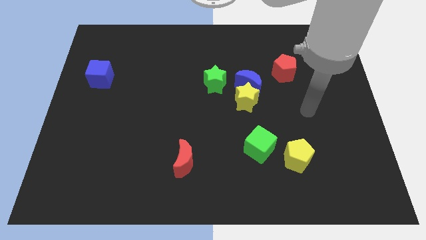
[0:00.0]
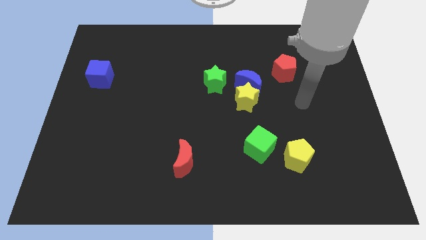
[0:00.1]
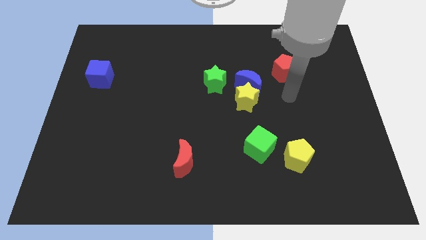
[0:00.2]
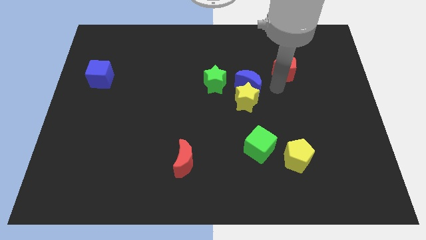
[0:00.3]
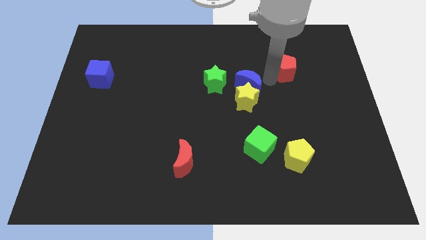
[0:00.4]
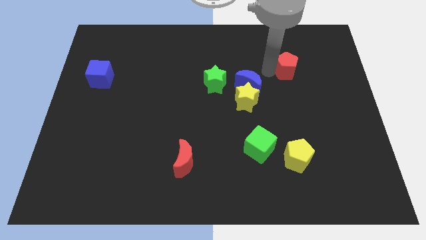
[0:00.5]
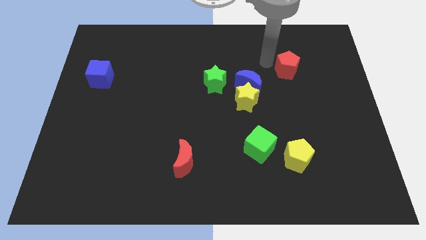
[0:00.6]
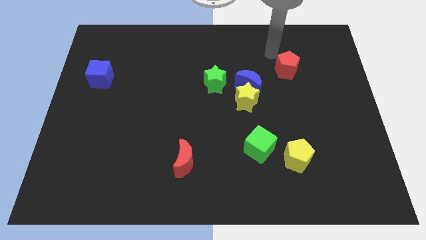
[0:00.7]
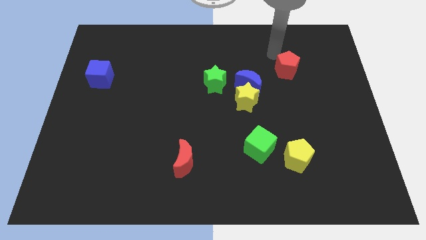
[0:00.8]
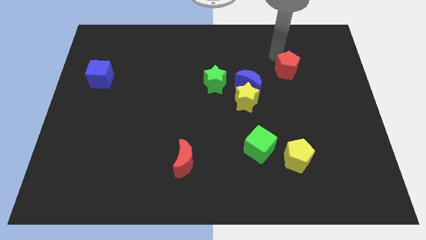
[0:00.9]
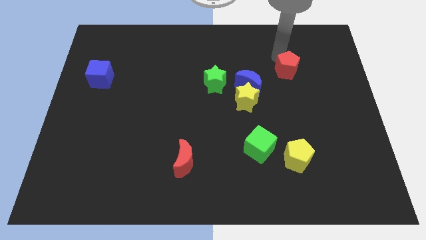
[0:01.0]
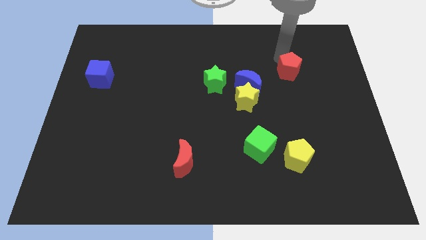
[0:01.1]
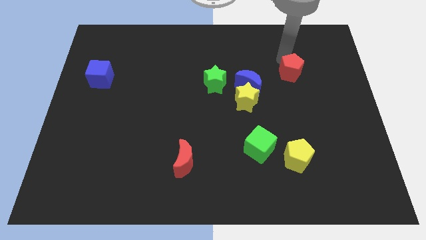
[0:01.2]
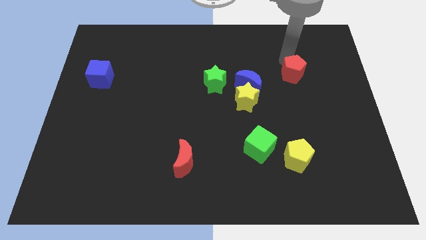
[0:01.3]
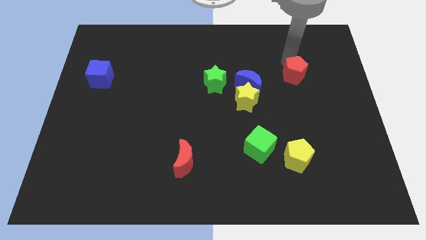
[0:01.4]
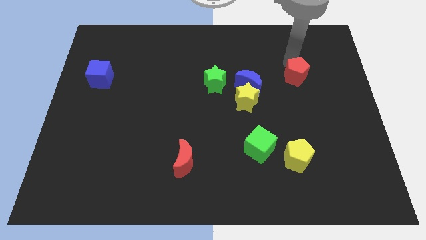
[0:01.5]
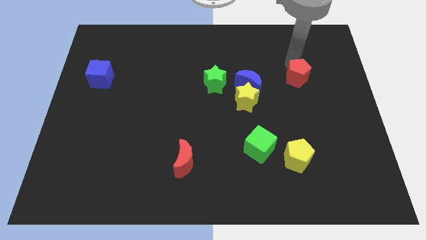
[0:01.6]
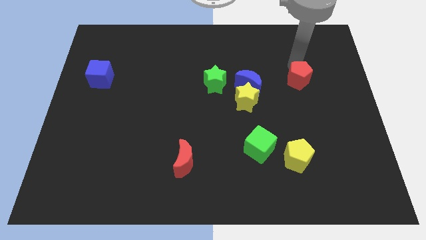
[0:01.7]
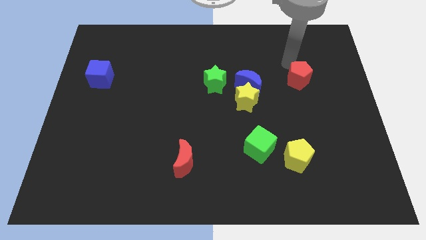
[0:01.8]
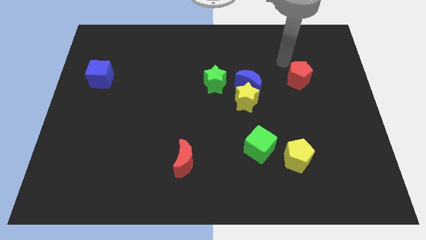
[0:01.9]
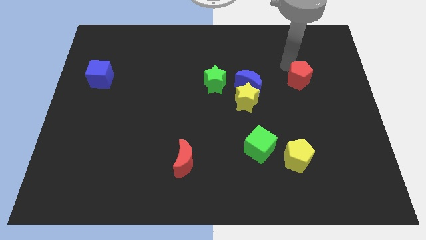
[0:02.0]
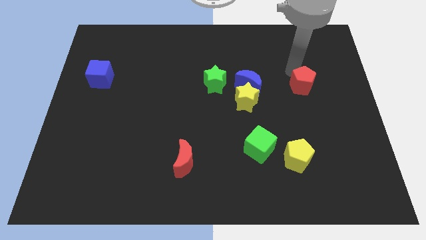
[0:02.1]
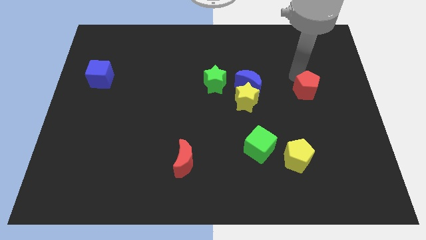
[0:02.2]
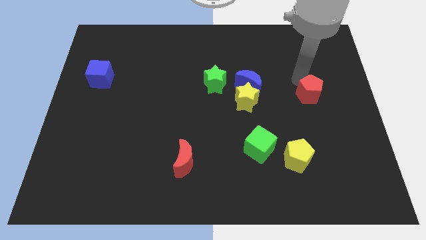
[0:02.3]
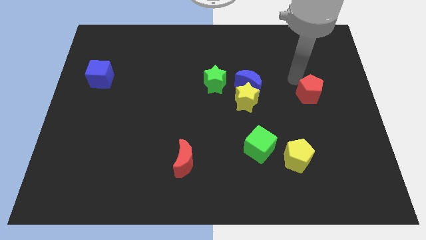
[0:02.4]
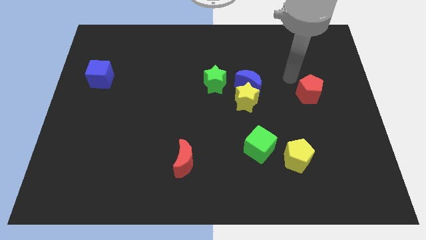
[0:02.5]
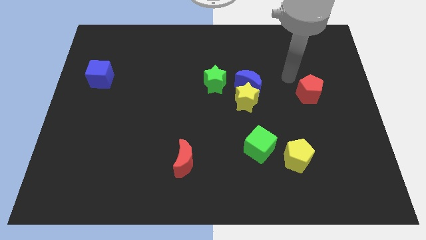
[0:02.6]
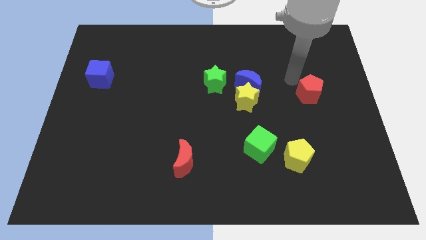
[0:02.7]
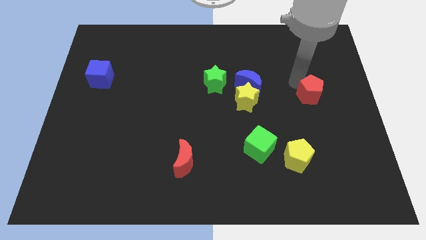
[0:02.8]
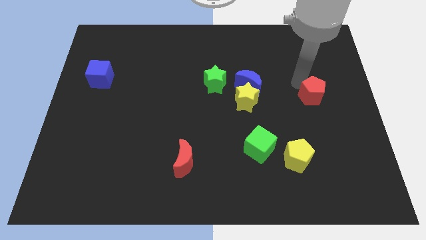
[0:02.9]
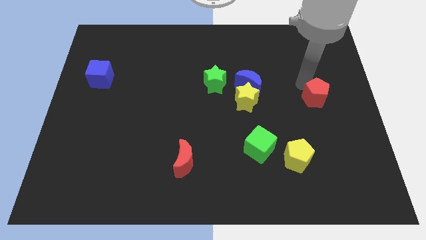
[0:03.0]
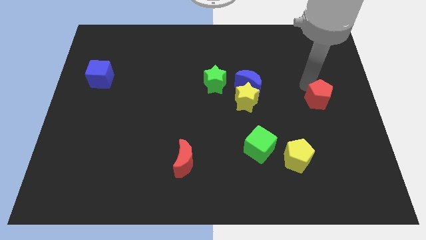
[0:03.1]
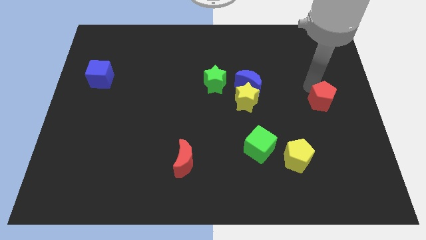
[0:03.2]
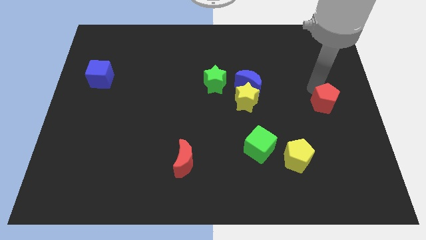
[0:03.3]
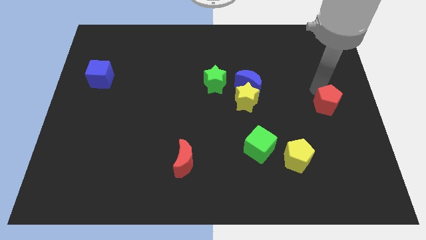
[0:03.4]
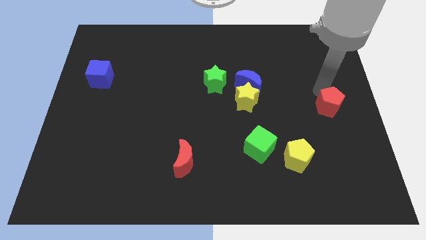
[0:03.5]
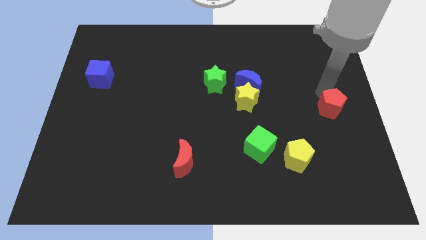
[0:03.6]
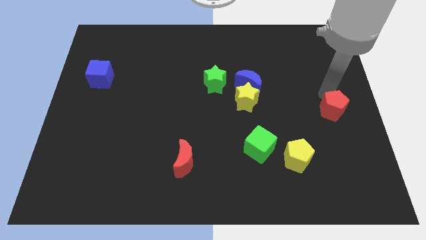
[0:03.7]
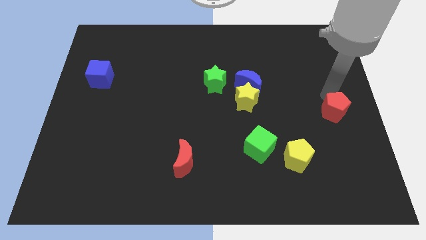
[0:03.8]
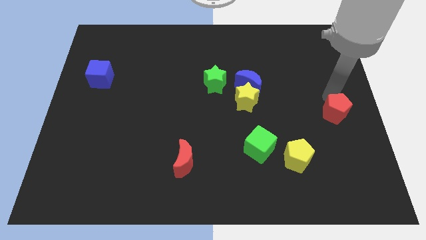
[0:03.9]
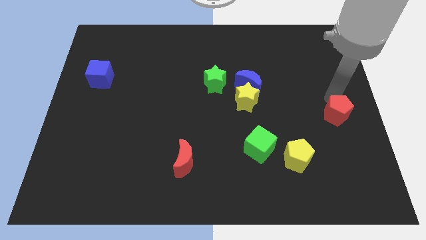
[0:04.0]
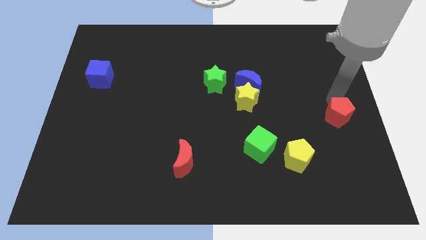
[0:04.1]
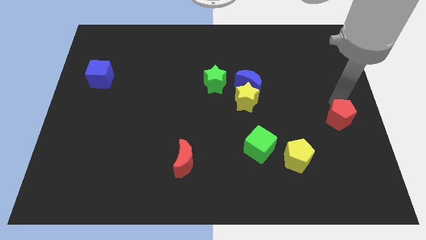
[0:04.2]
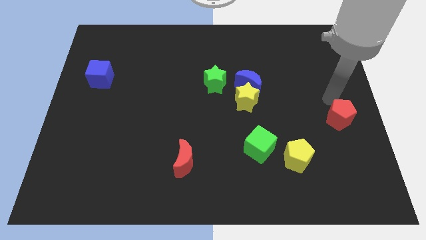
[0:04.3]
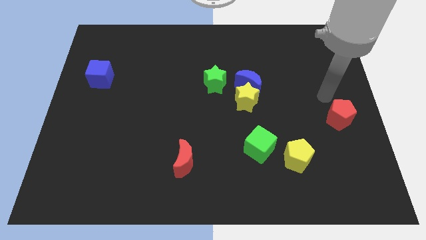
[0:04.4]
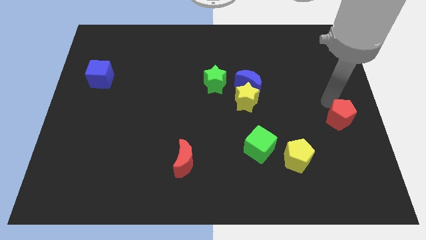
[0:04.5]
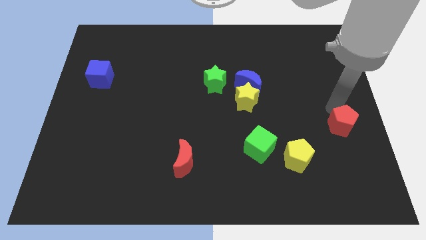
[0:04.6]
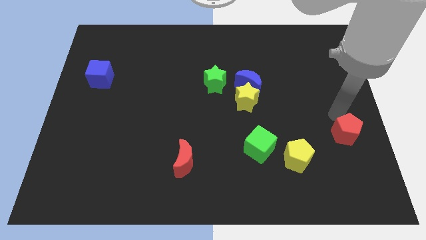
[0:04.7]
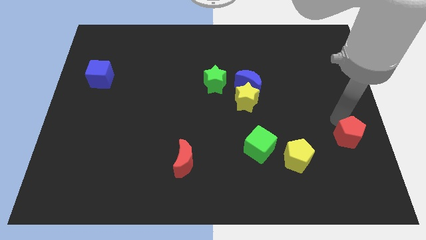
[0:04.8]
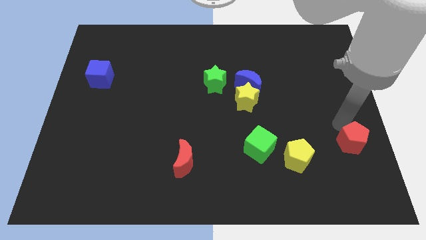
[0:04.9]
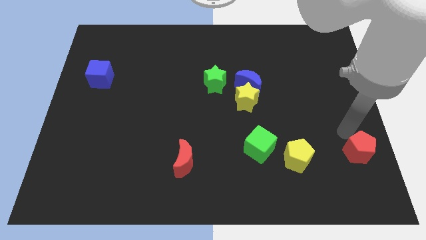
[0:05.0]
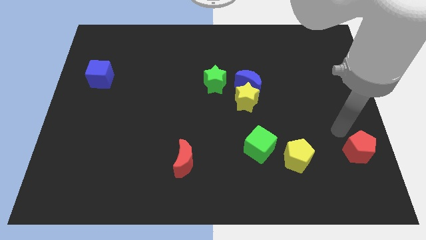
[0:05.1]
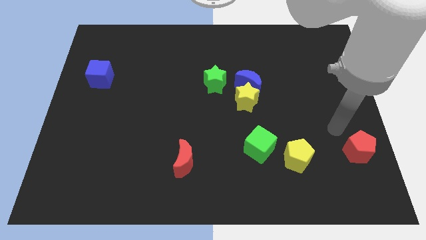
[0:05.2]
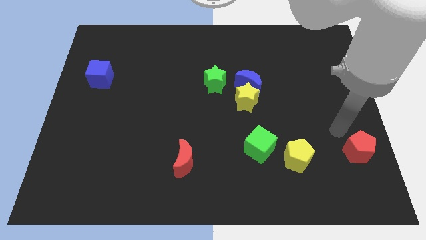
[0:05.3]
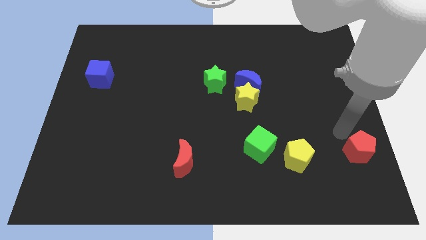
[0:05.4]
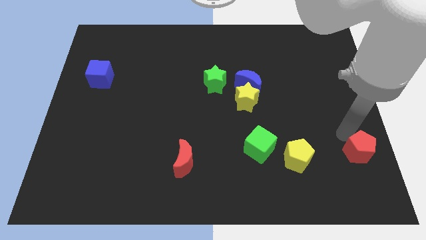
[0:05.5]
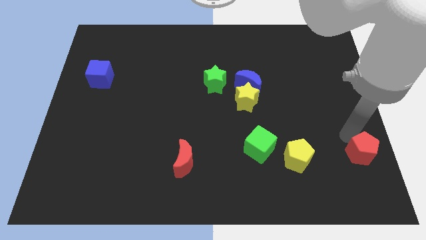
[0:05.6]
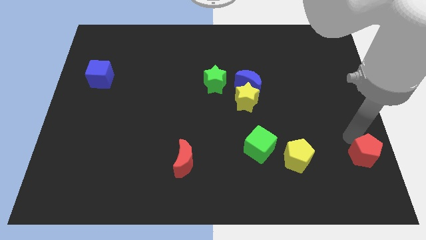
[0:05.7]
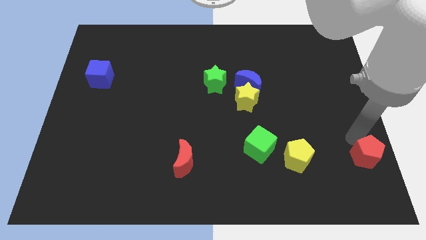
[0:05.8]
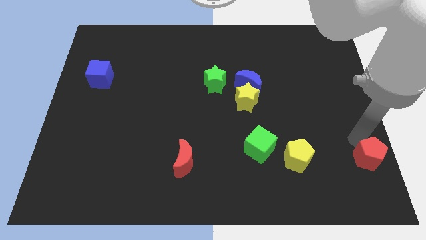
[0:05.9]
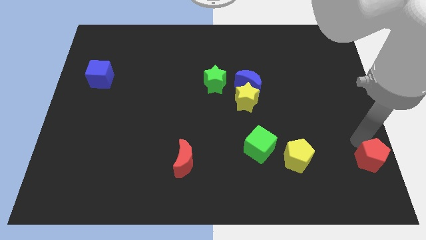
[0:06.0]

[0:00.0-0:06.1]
push the red pentagon to the bottom right corner

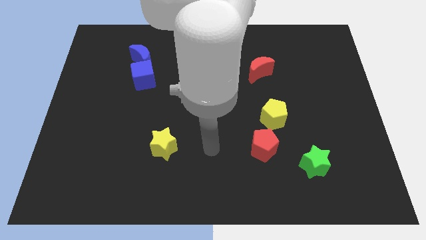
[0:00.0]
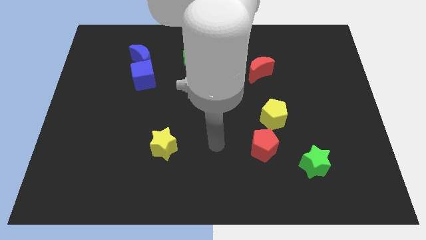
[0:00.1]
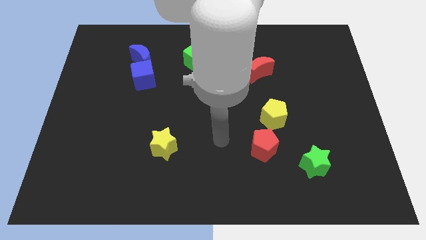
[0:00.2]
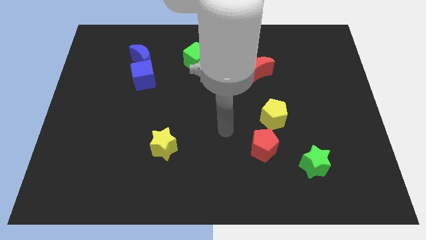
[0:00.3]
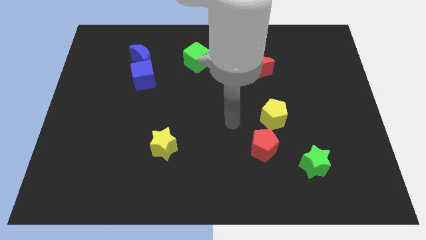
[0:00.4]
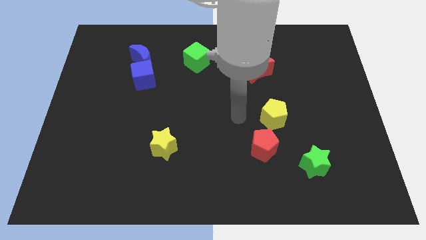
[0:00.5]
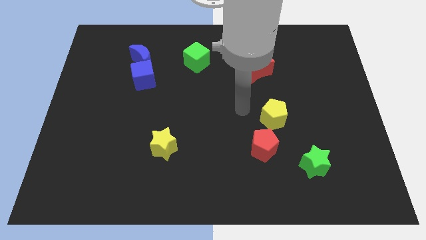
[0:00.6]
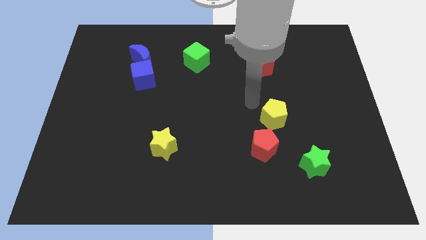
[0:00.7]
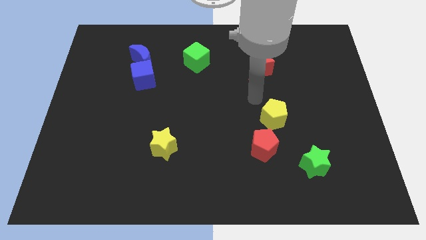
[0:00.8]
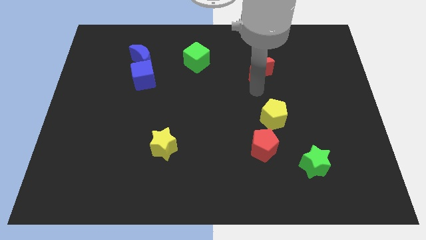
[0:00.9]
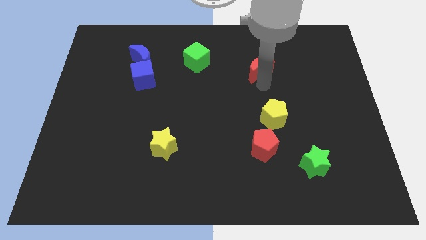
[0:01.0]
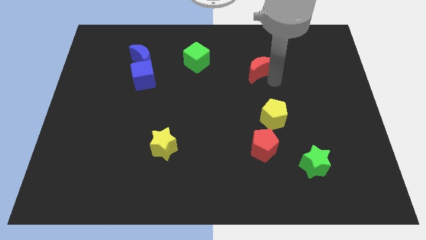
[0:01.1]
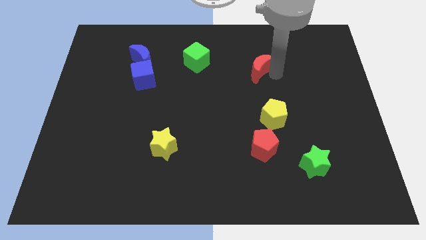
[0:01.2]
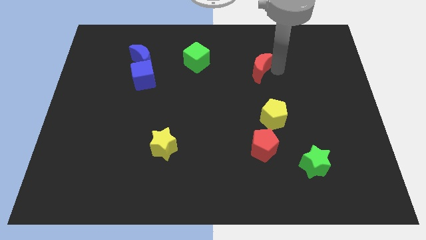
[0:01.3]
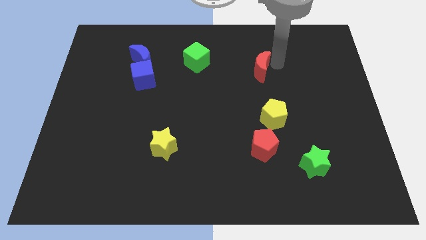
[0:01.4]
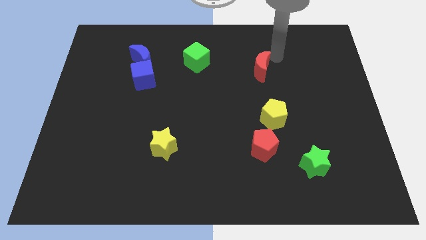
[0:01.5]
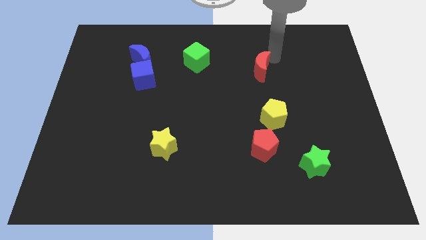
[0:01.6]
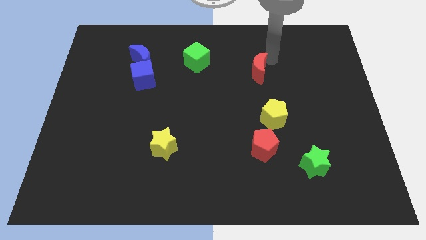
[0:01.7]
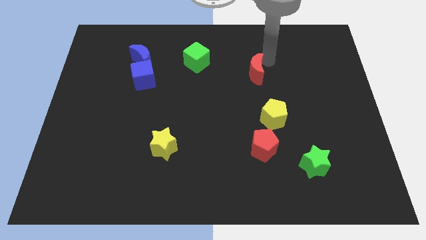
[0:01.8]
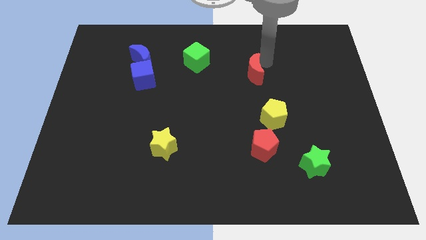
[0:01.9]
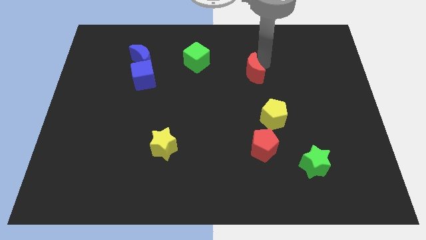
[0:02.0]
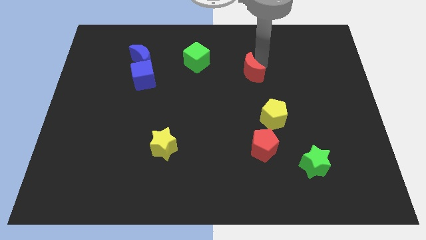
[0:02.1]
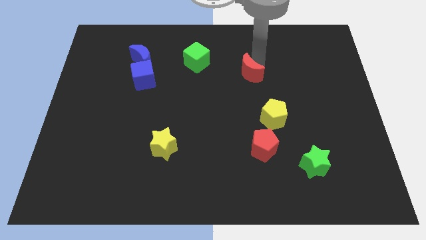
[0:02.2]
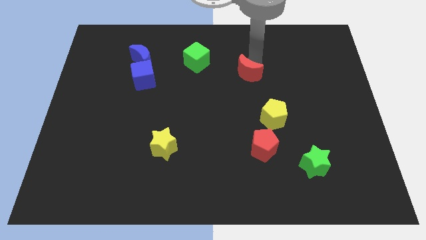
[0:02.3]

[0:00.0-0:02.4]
push the red moon to the middle
